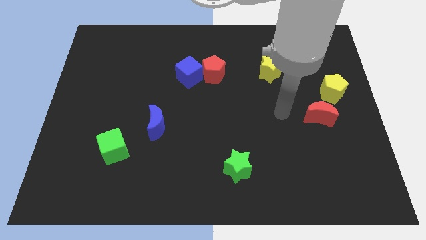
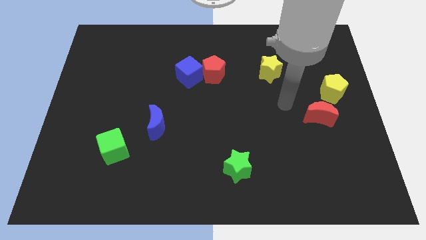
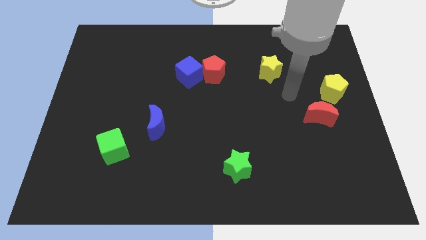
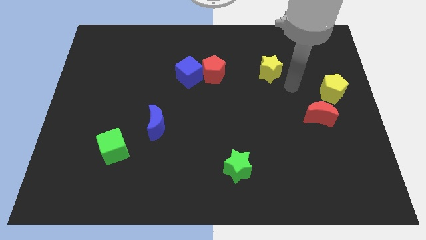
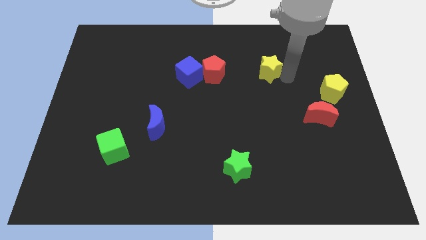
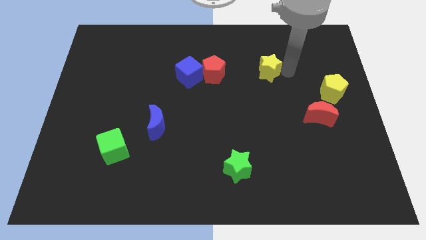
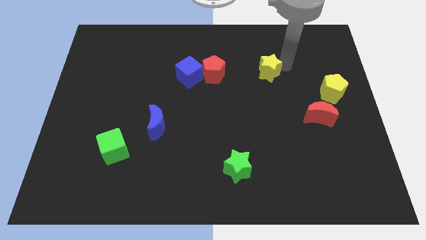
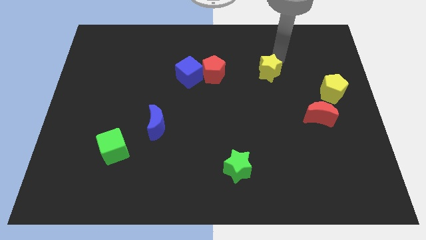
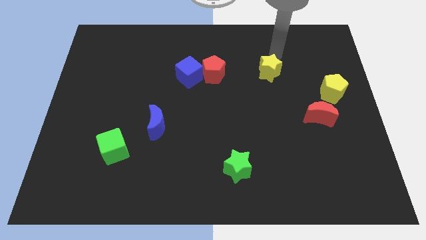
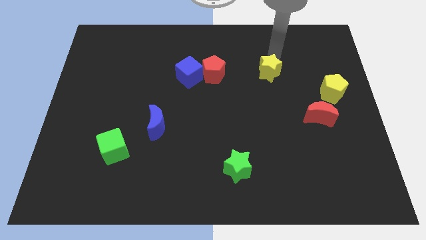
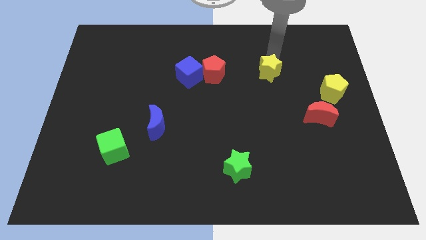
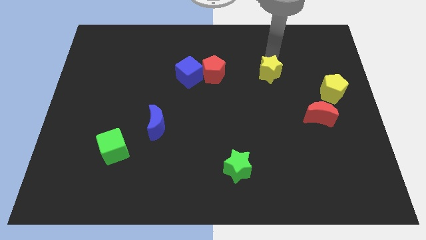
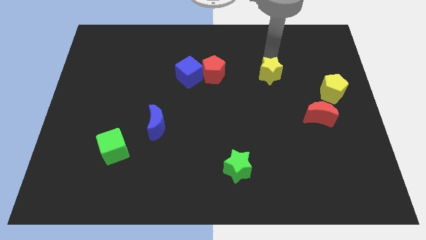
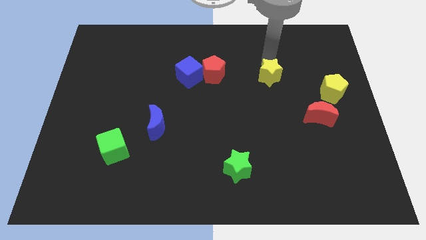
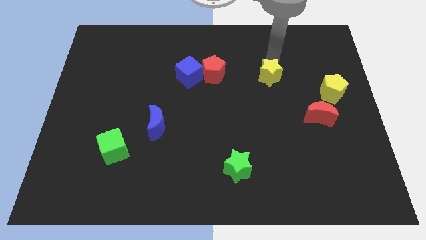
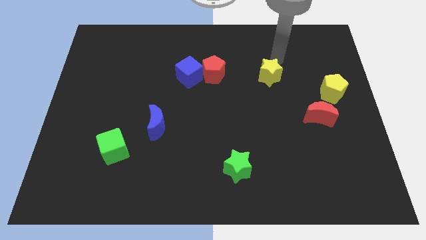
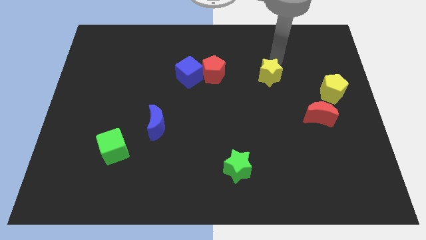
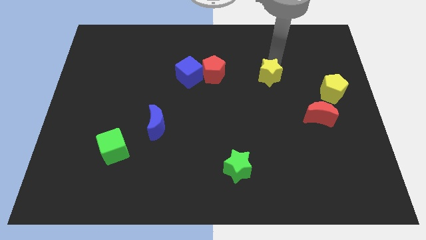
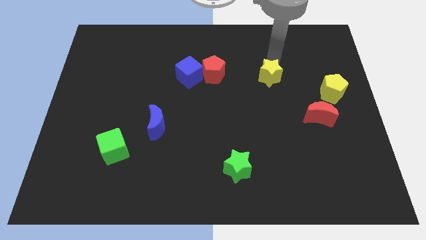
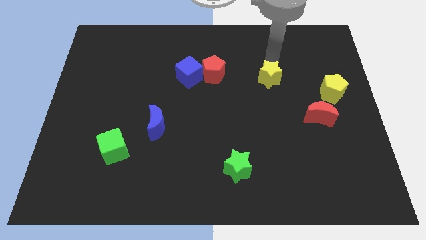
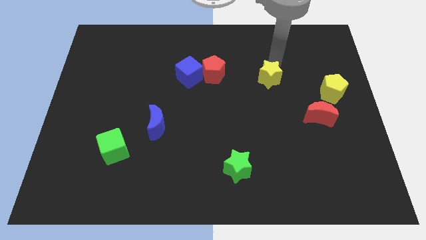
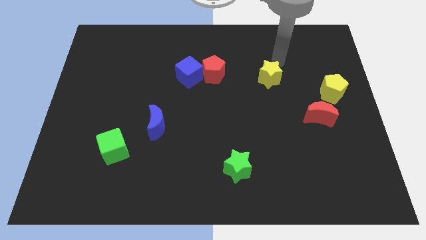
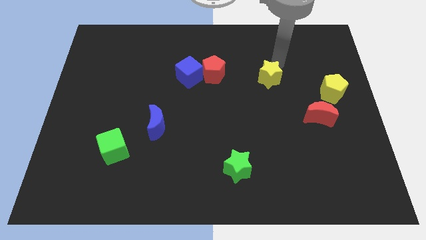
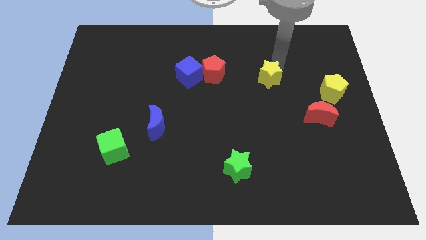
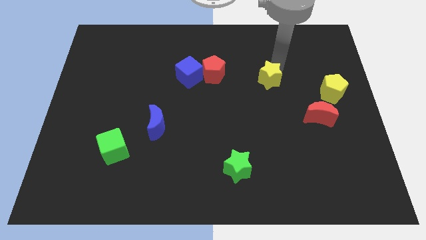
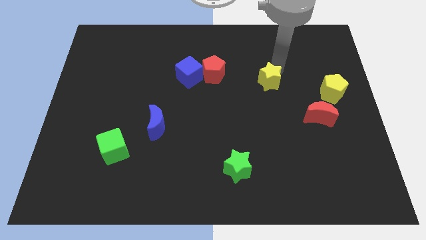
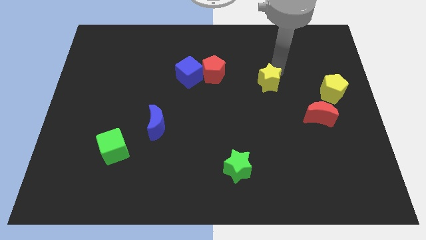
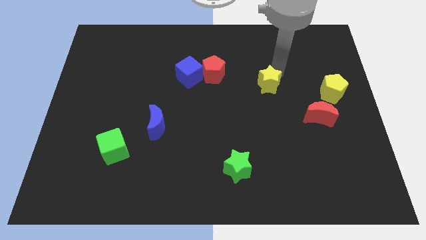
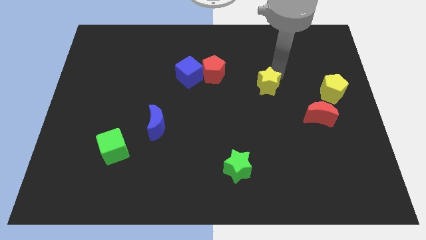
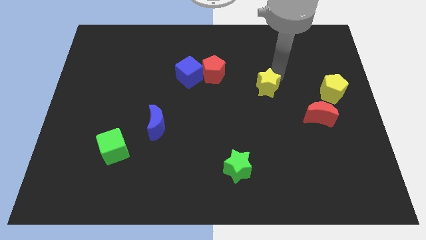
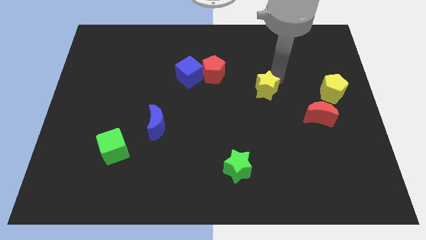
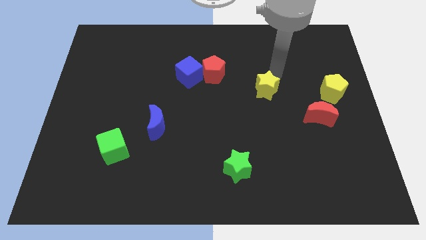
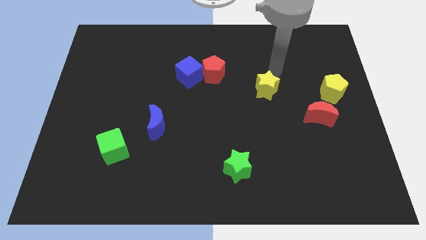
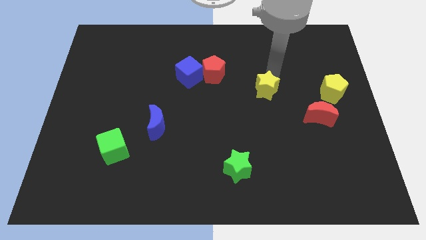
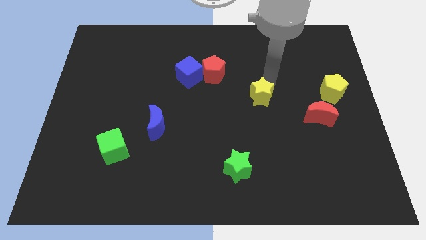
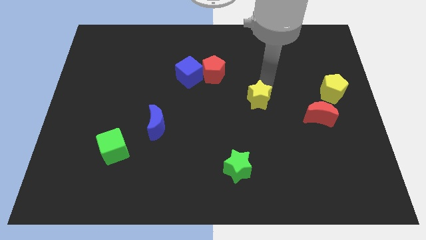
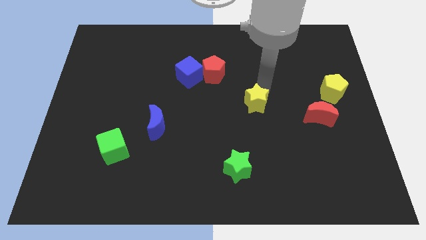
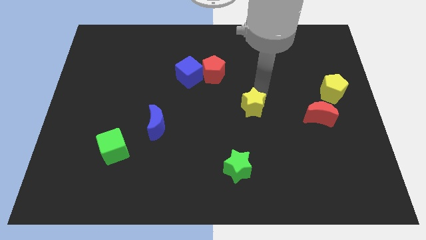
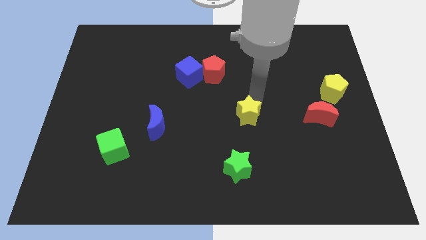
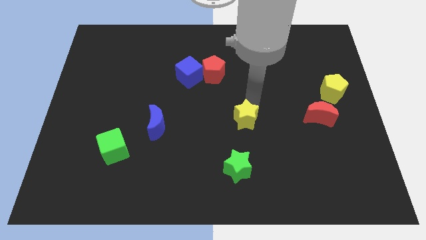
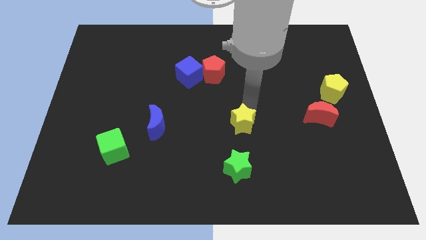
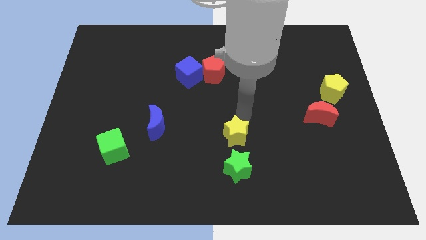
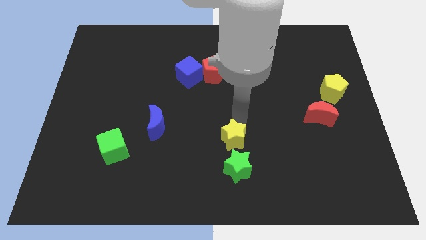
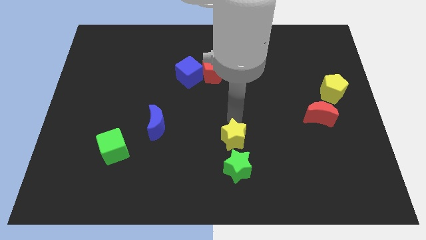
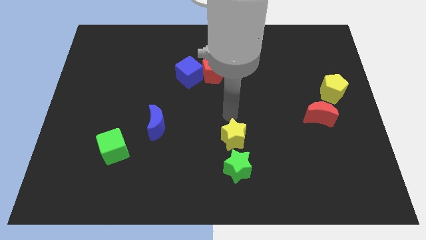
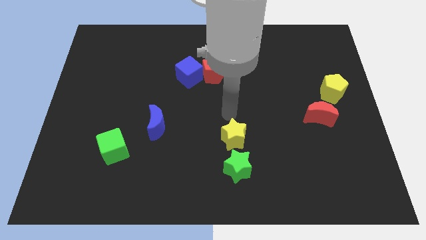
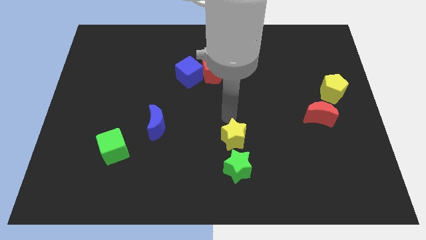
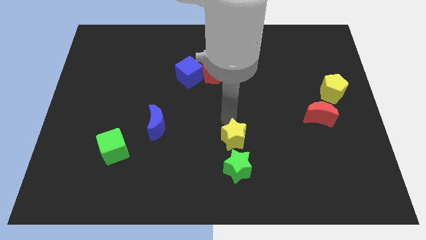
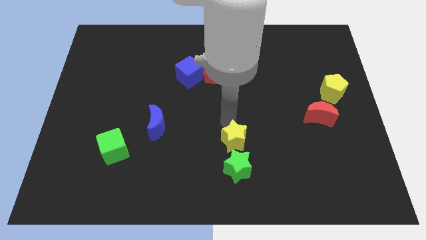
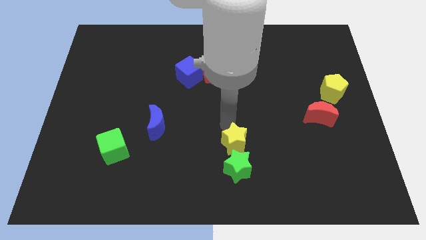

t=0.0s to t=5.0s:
slide the yellow star next to the green star

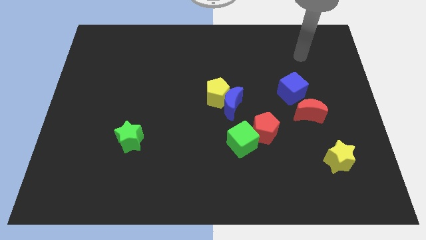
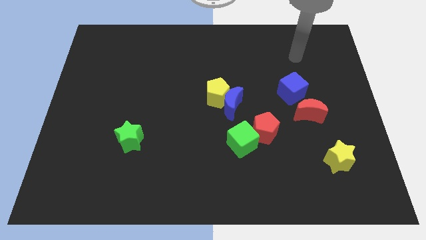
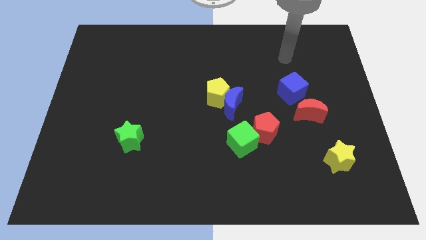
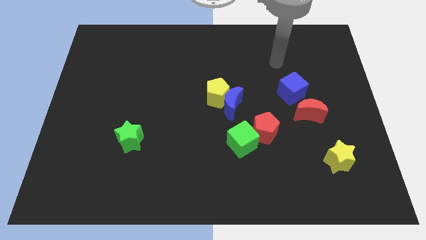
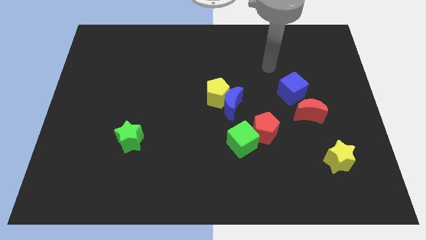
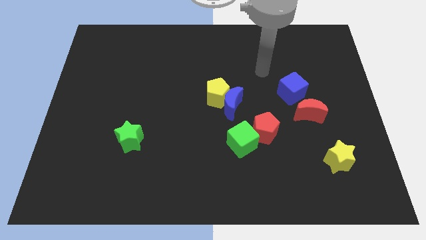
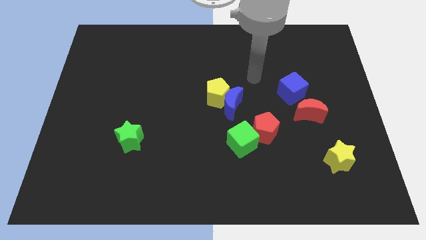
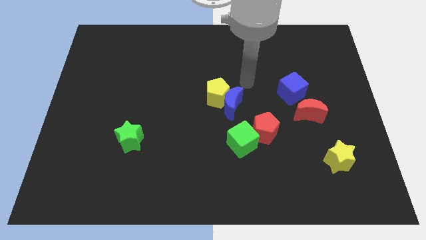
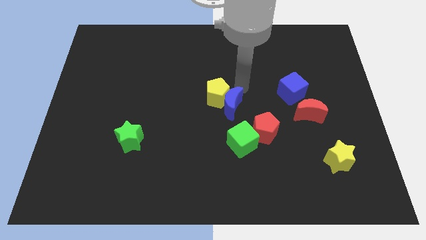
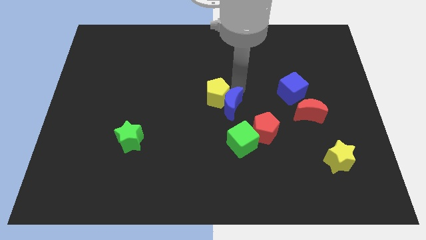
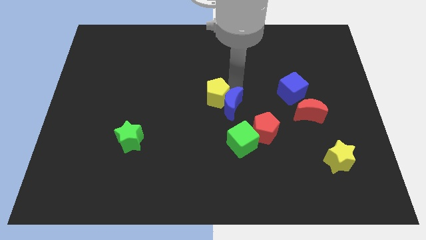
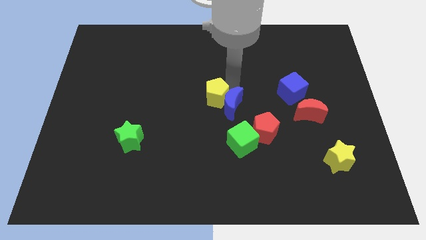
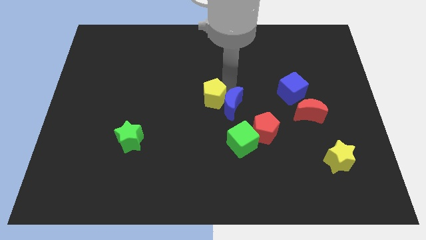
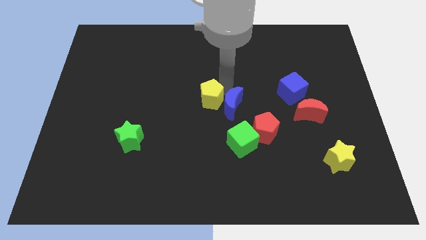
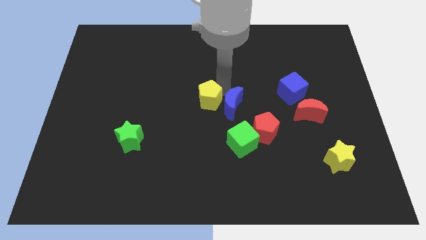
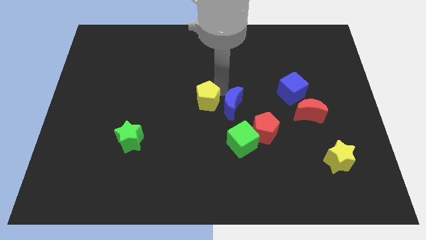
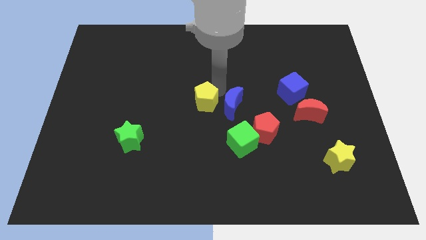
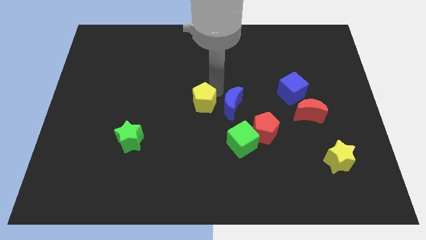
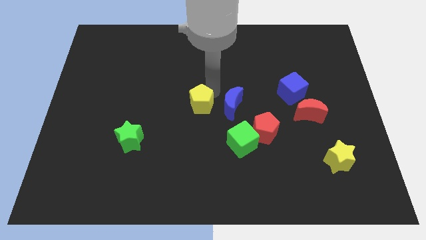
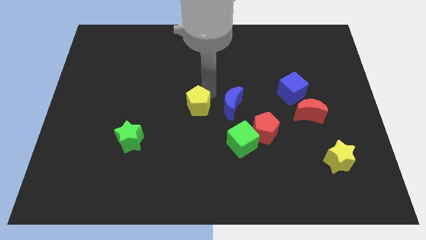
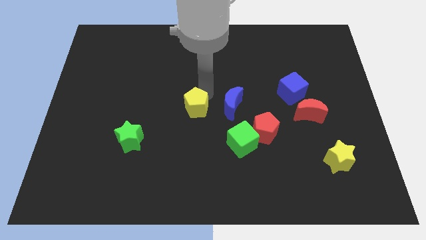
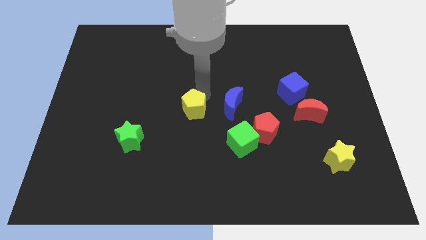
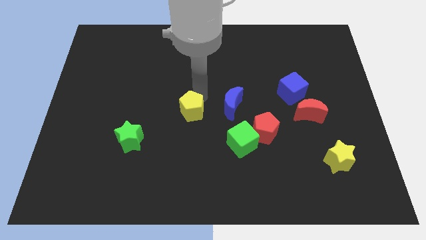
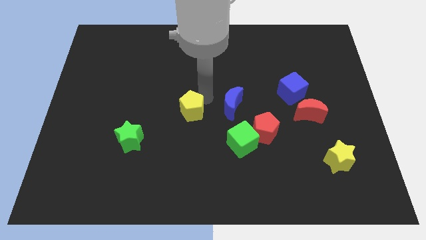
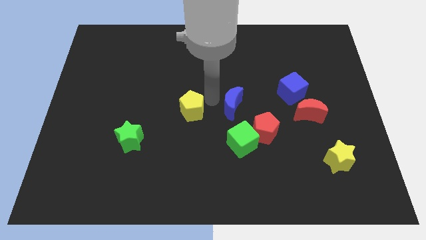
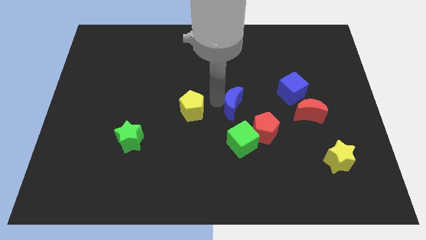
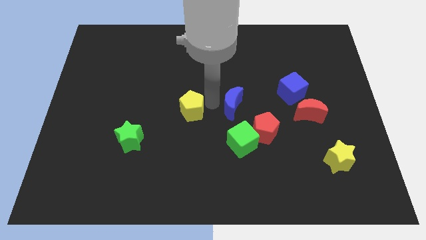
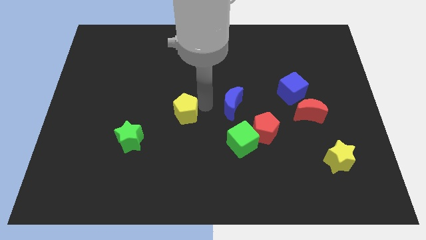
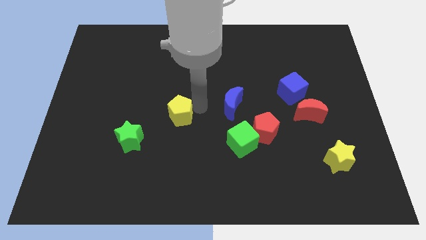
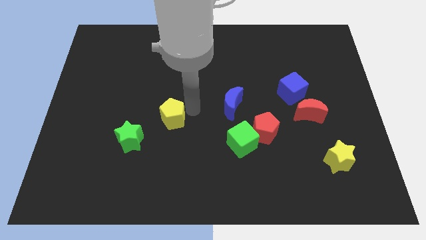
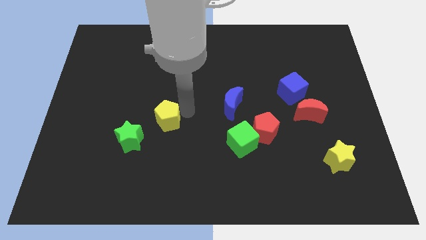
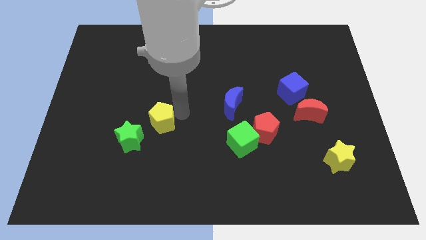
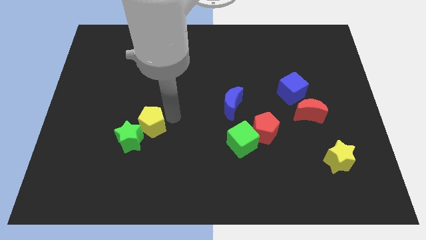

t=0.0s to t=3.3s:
slide the yellow pentagon towards the green star
